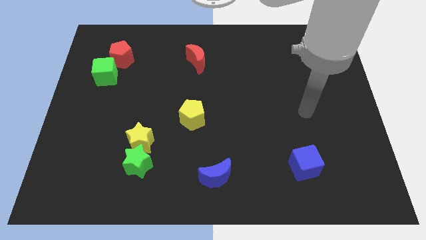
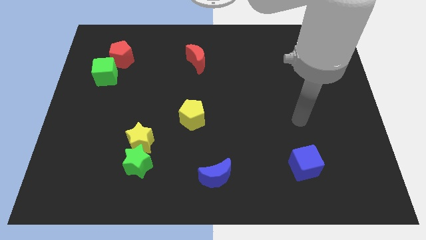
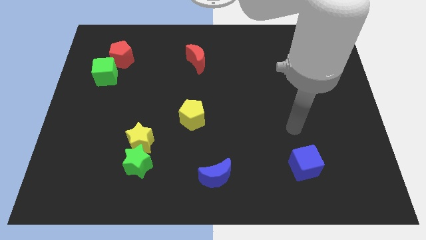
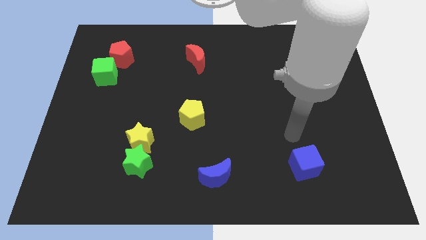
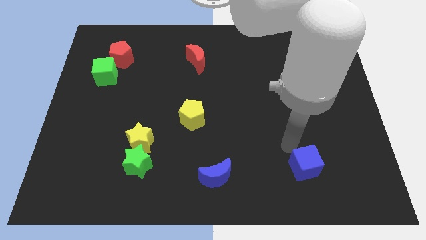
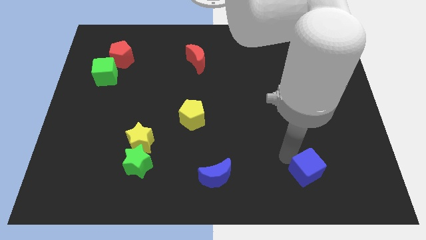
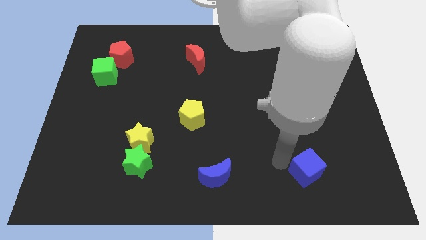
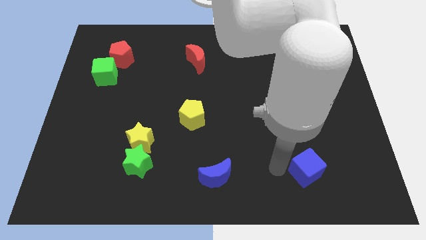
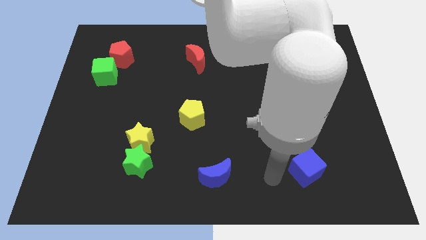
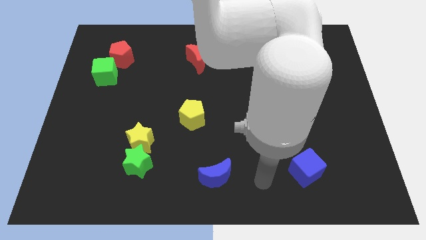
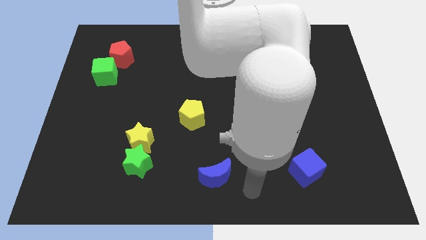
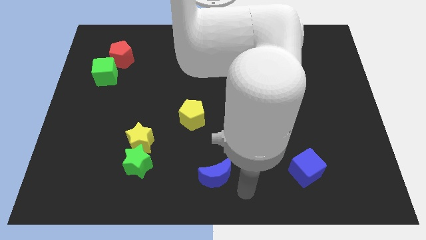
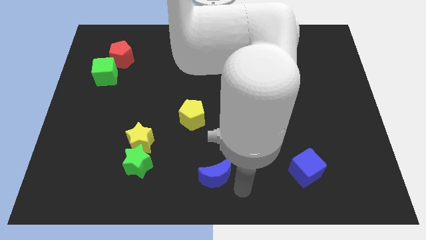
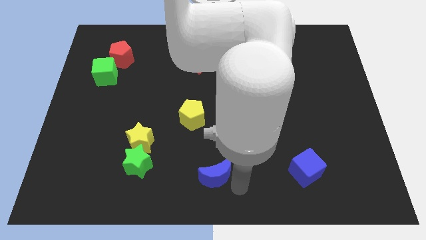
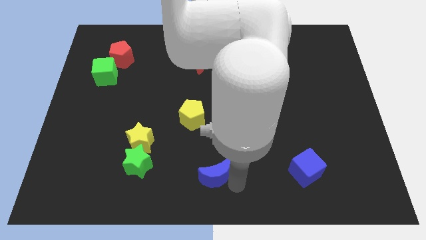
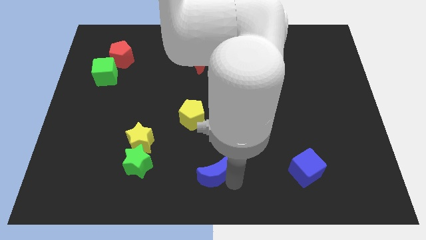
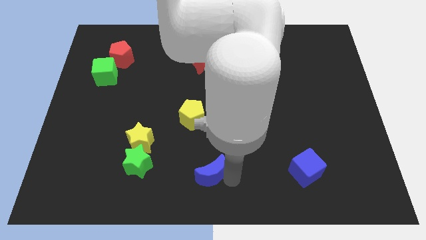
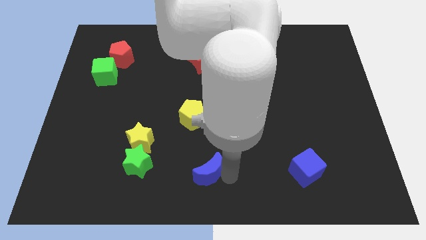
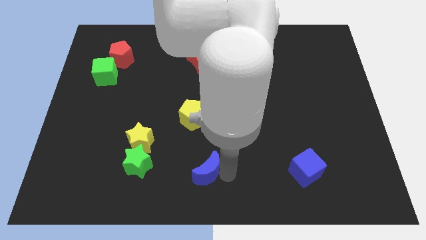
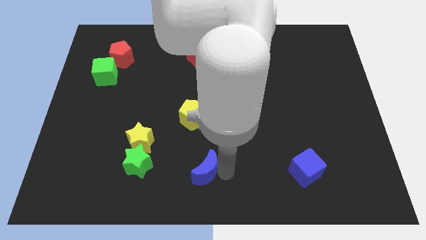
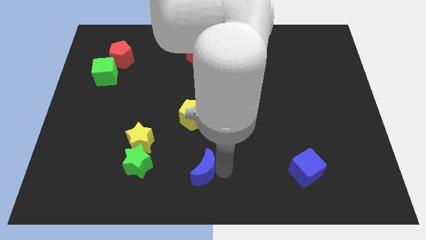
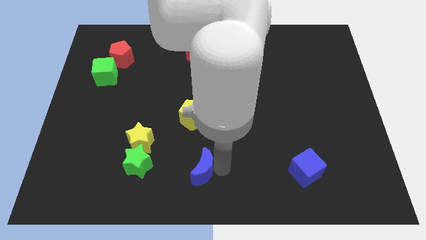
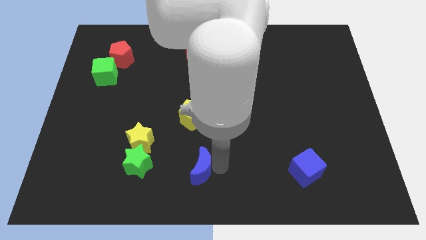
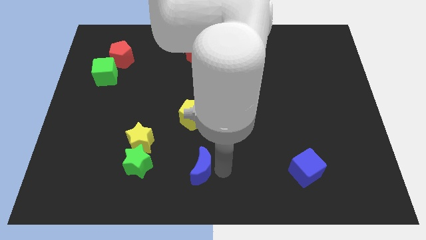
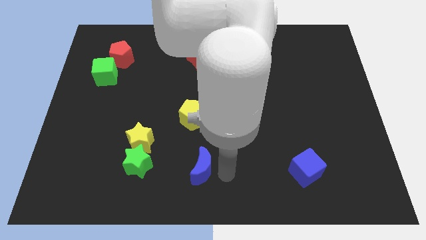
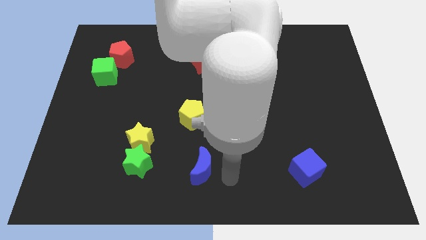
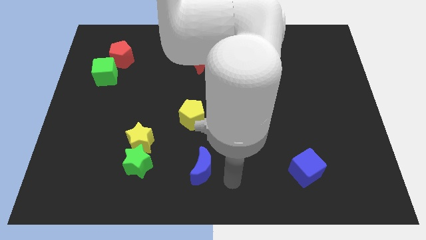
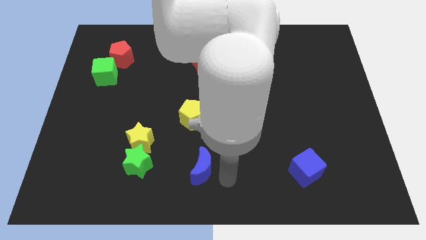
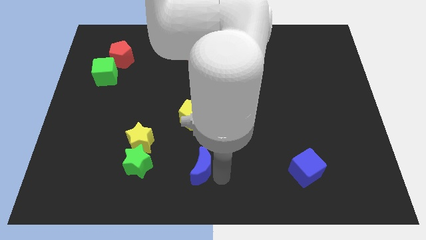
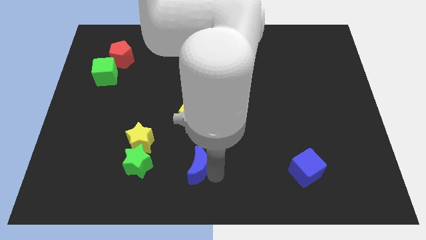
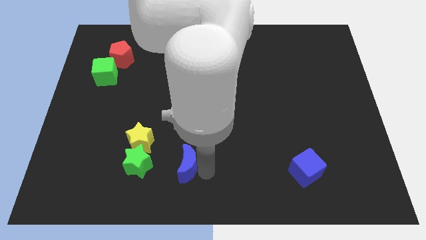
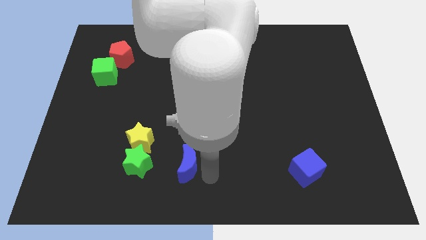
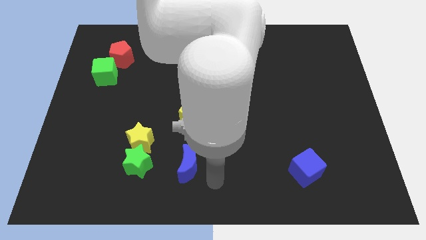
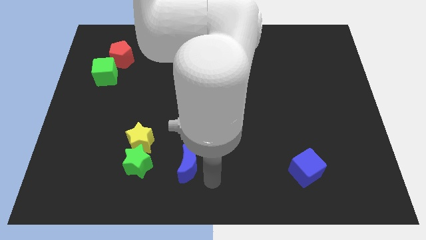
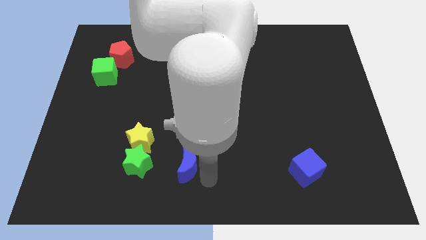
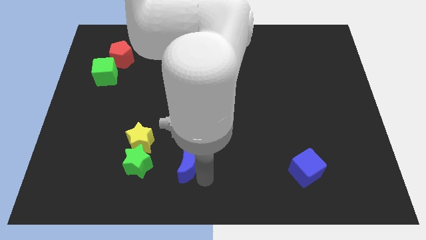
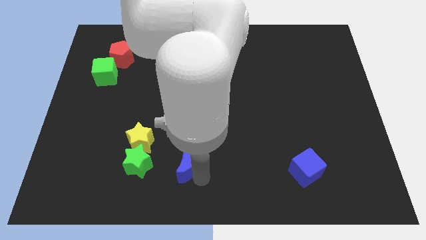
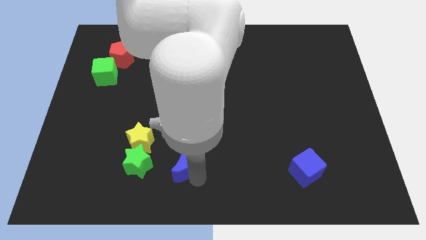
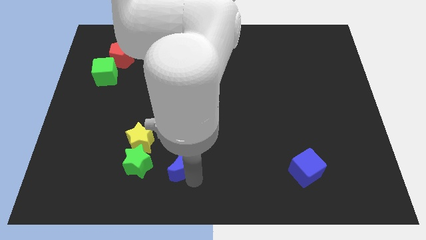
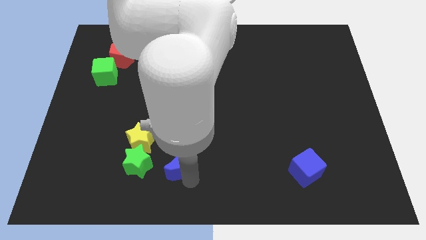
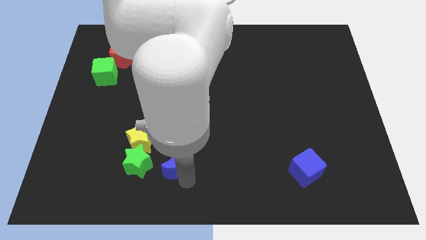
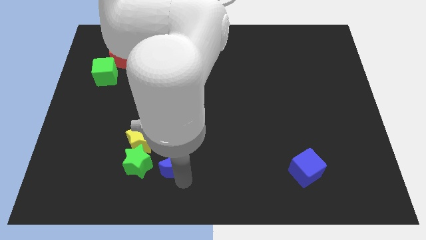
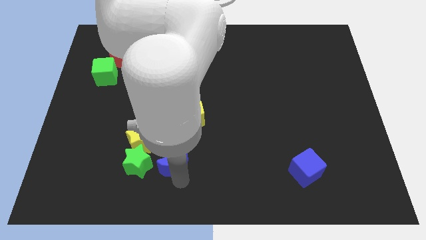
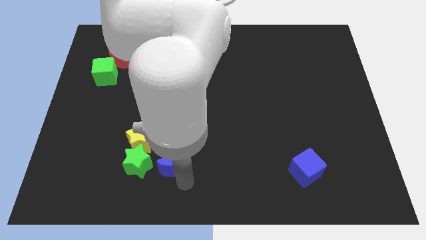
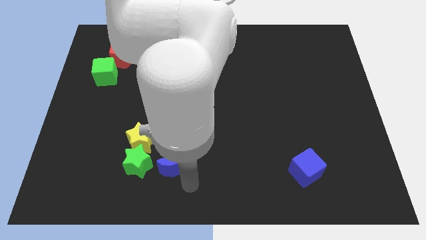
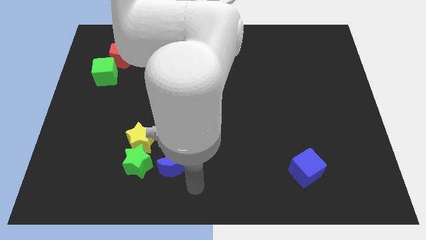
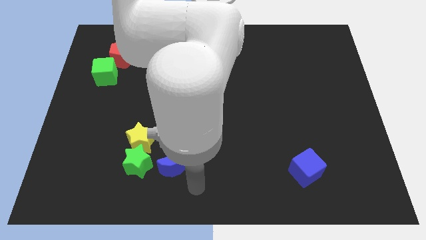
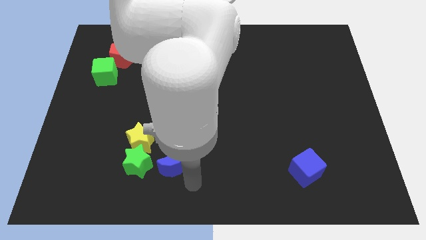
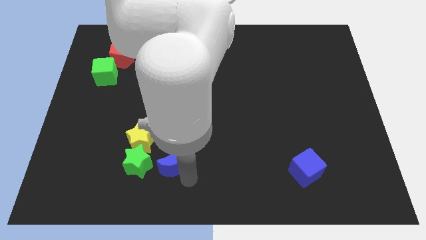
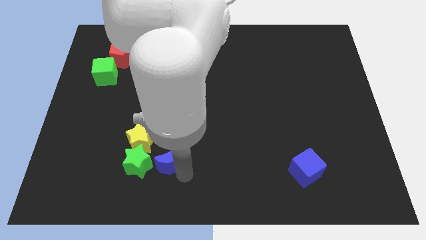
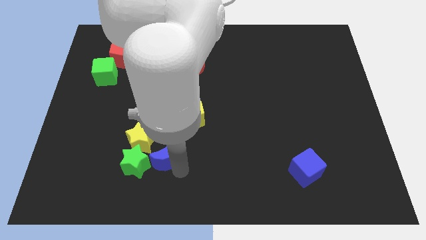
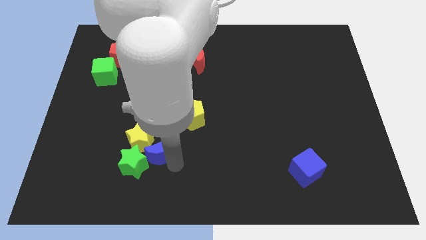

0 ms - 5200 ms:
slide the blue moon towards the yellow star

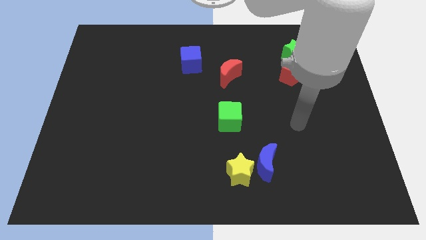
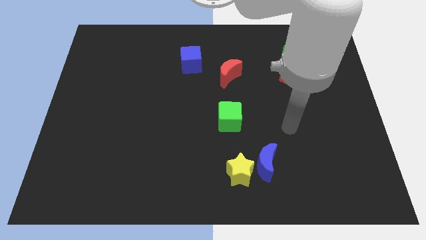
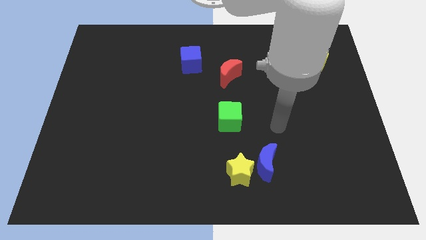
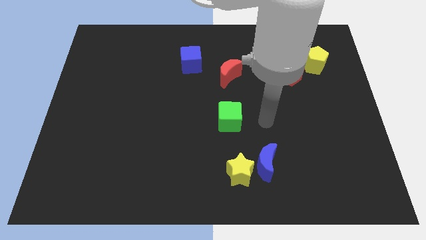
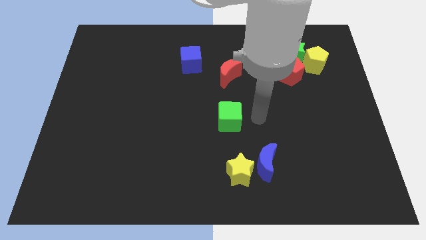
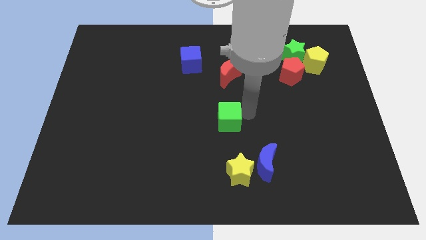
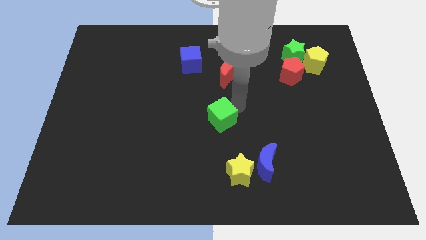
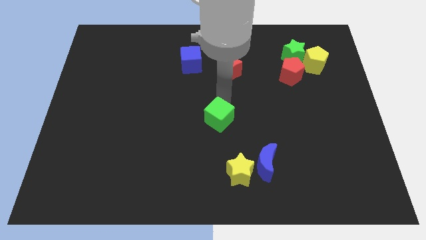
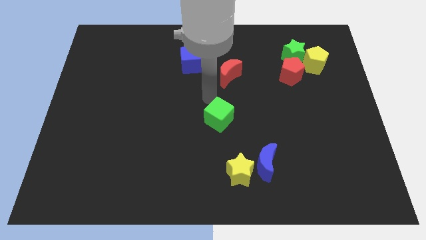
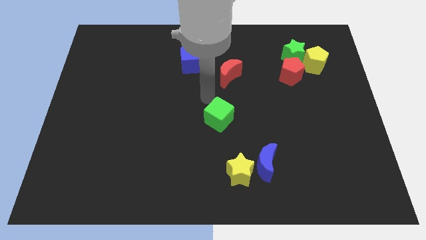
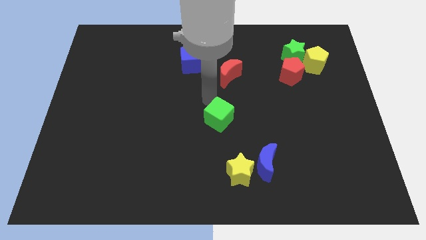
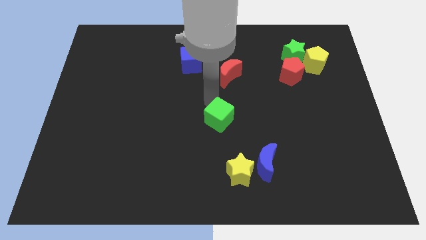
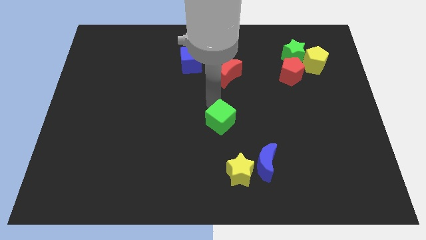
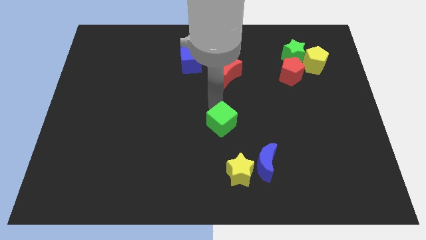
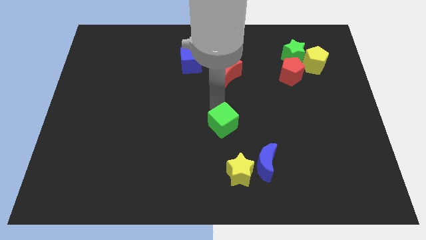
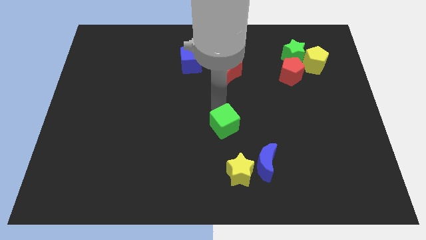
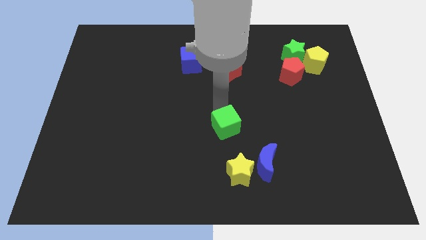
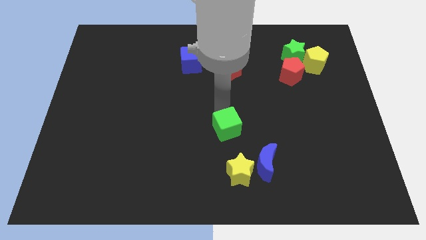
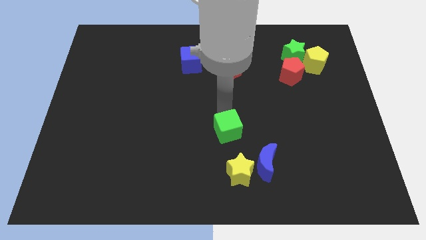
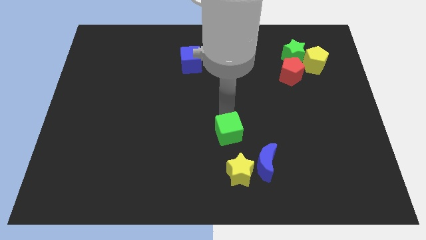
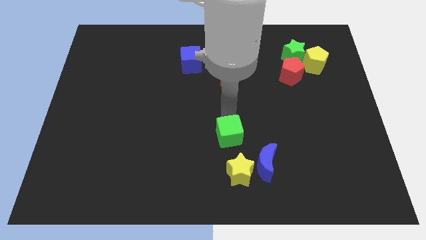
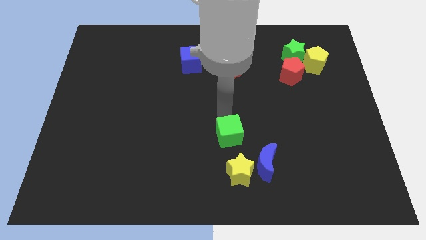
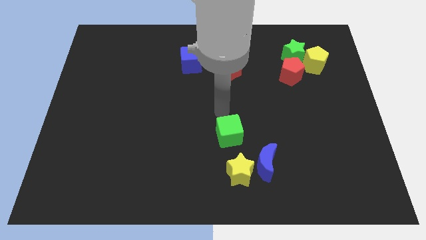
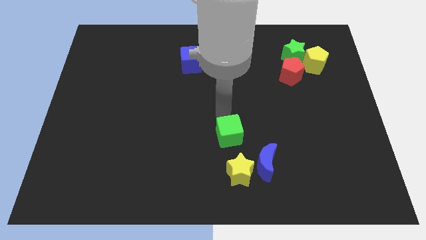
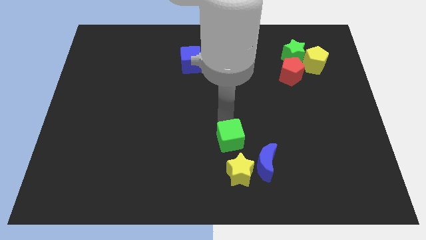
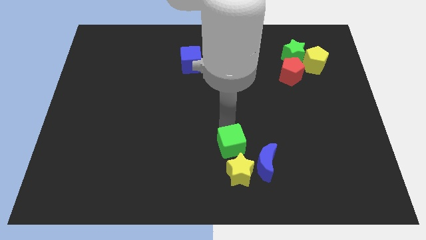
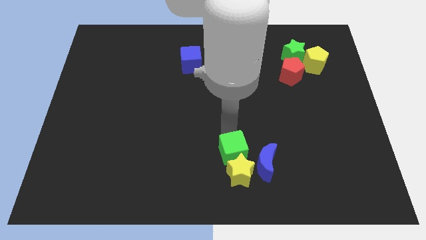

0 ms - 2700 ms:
push the green cube towards the yellow star
